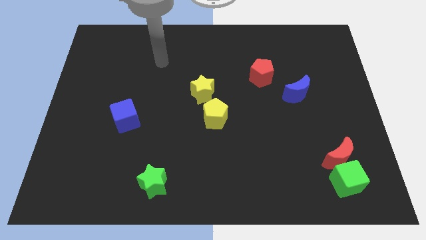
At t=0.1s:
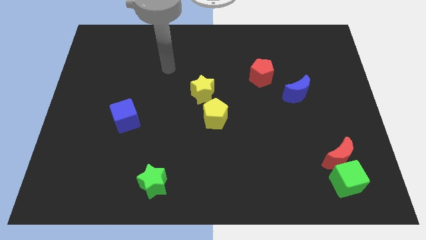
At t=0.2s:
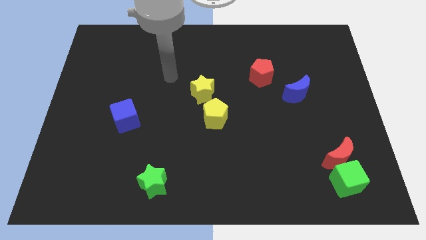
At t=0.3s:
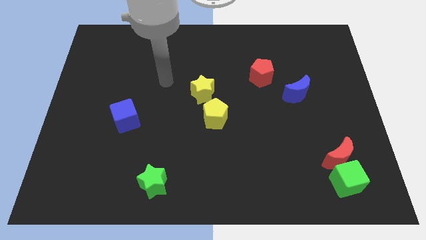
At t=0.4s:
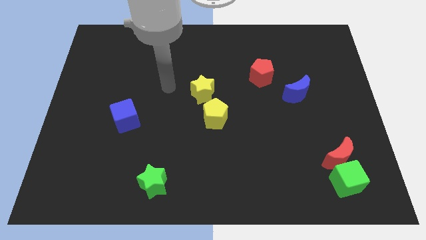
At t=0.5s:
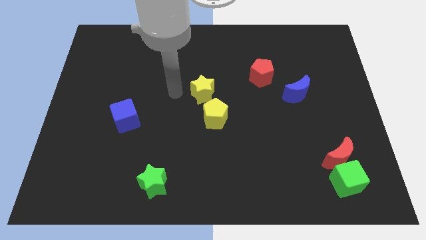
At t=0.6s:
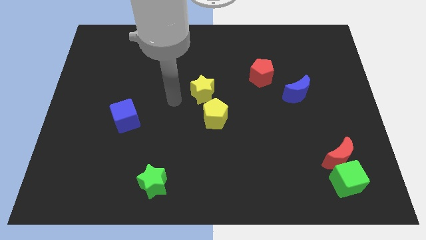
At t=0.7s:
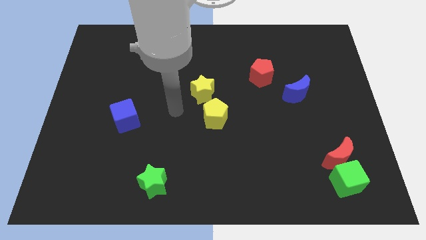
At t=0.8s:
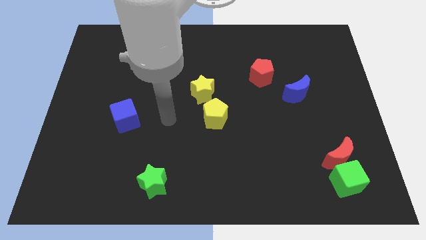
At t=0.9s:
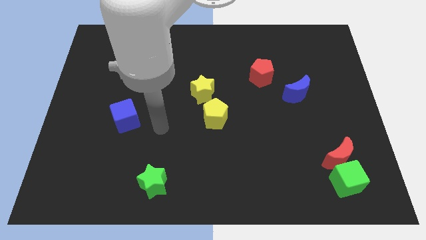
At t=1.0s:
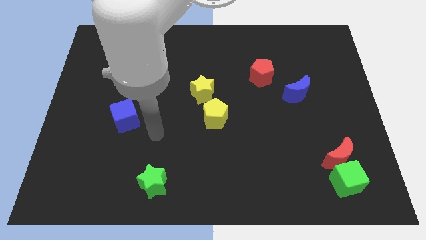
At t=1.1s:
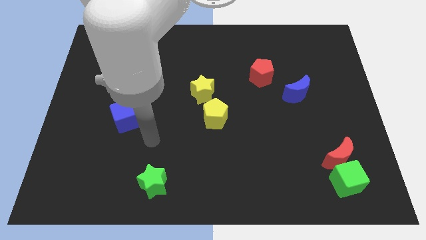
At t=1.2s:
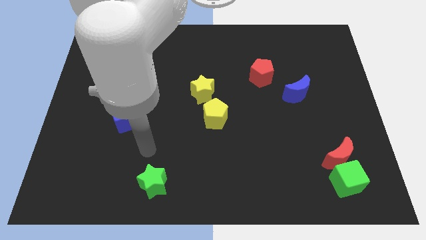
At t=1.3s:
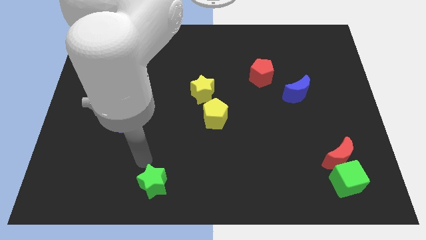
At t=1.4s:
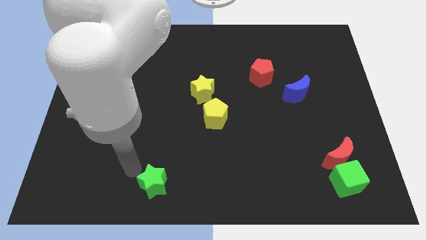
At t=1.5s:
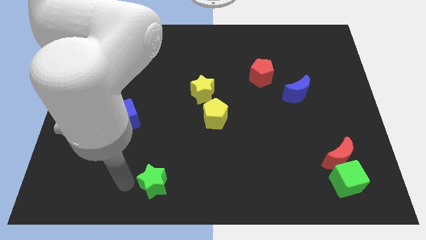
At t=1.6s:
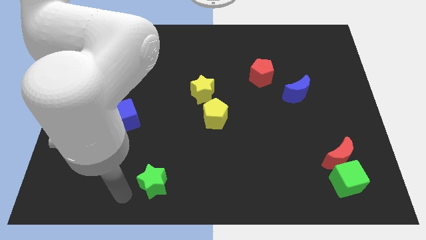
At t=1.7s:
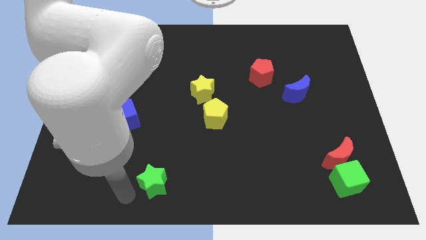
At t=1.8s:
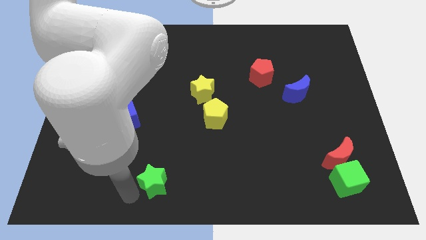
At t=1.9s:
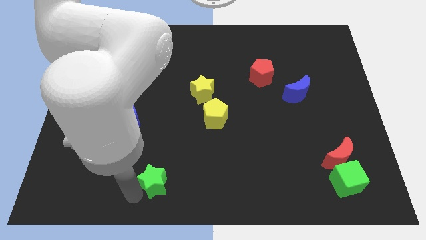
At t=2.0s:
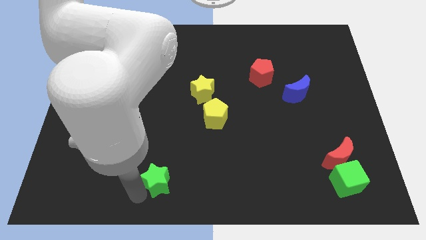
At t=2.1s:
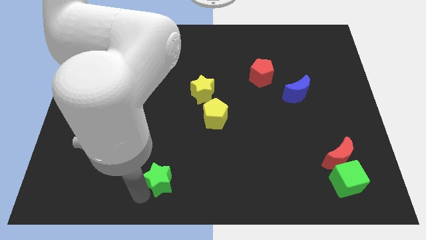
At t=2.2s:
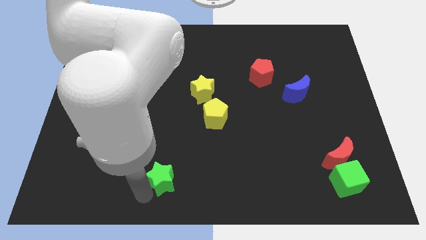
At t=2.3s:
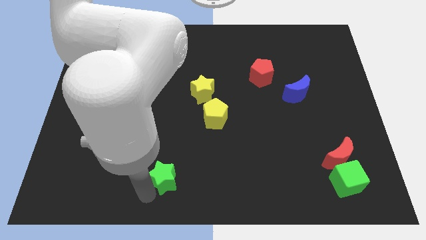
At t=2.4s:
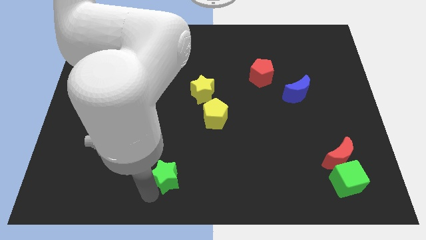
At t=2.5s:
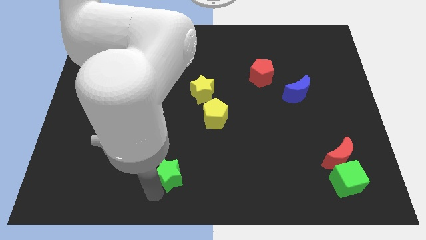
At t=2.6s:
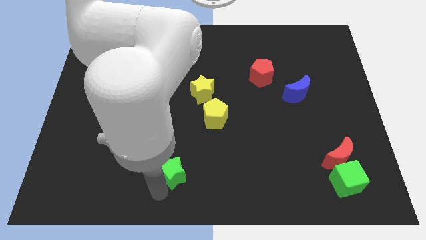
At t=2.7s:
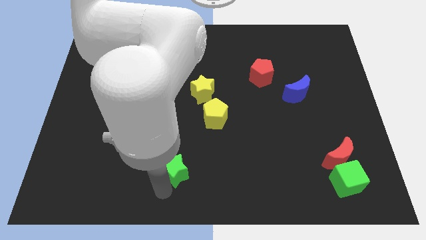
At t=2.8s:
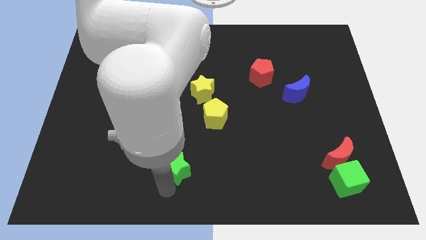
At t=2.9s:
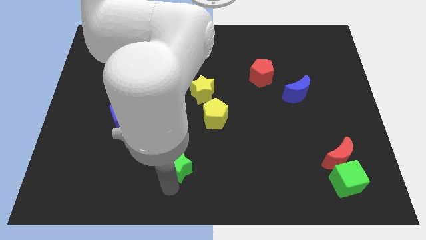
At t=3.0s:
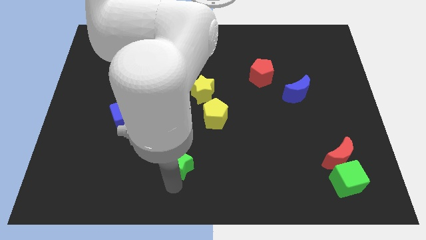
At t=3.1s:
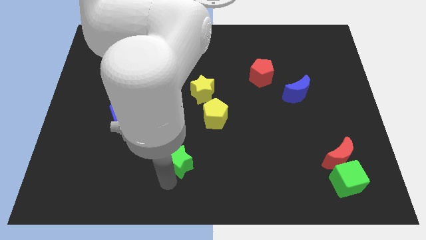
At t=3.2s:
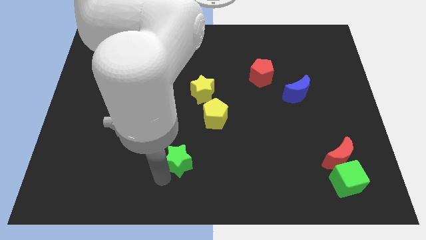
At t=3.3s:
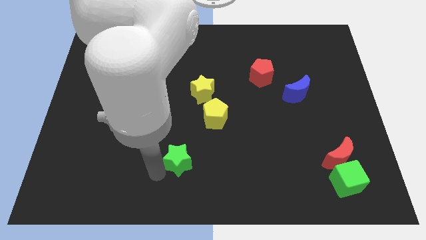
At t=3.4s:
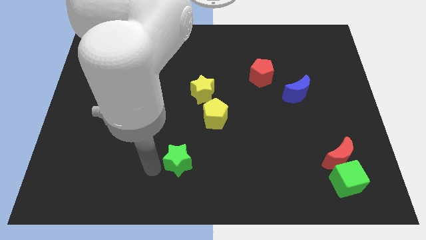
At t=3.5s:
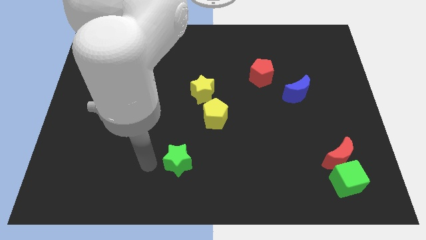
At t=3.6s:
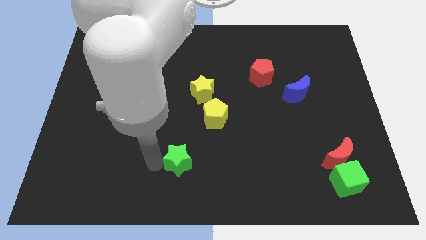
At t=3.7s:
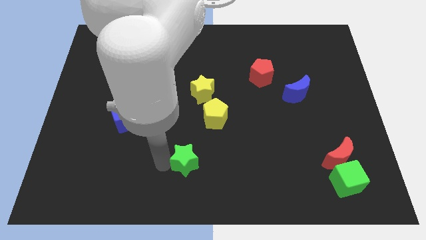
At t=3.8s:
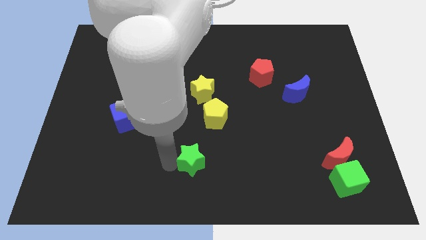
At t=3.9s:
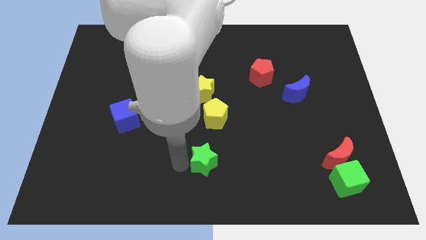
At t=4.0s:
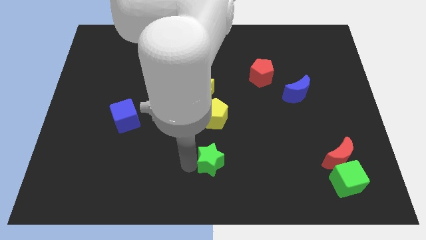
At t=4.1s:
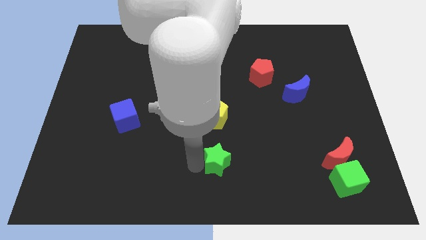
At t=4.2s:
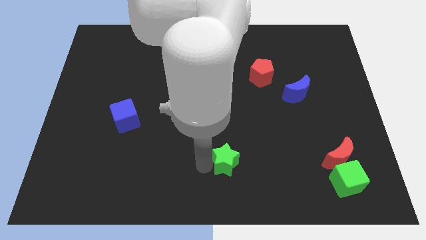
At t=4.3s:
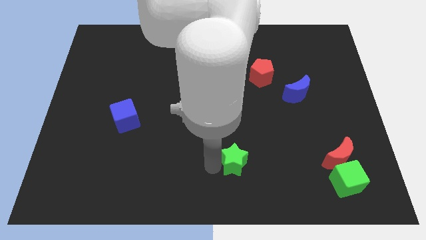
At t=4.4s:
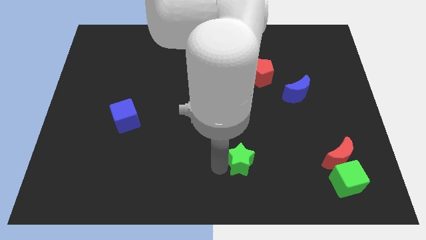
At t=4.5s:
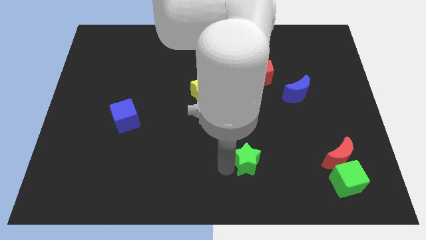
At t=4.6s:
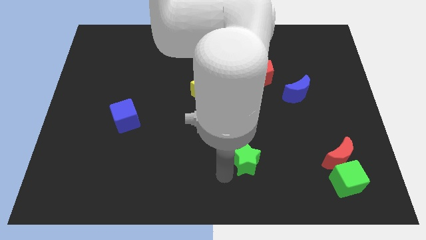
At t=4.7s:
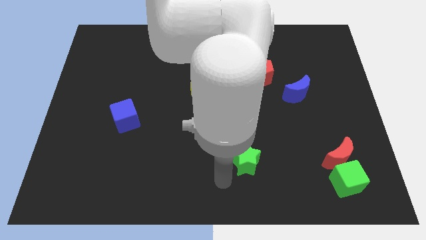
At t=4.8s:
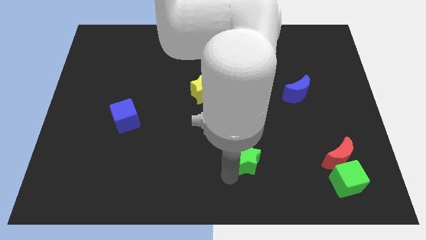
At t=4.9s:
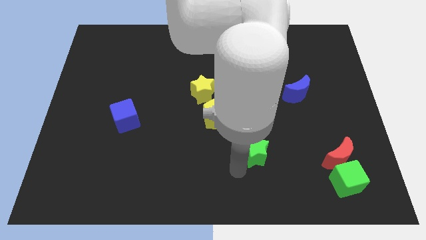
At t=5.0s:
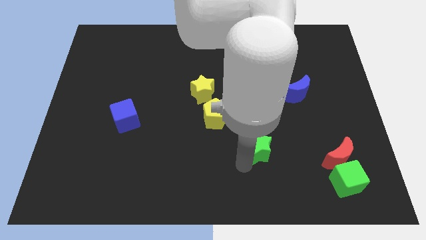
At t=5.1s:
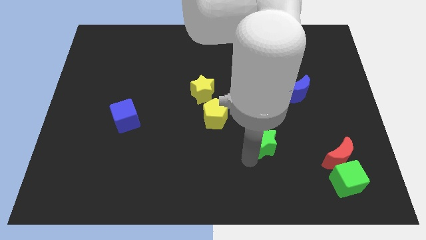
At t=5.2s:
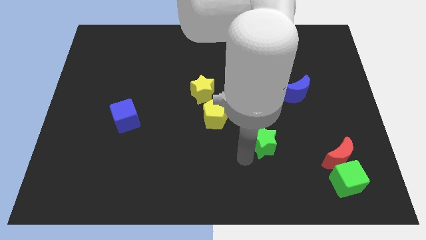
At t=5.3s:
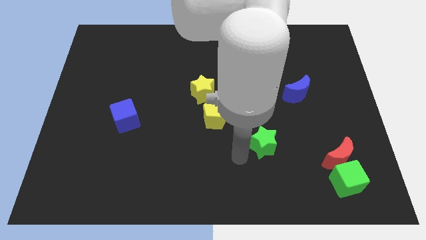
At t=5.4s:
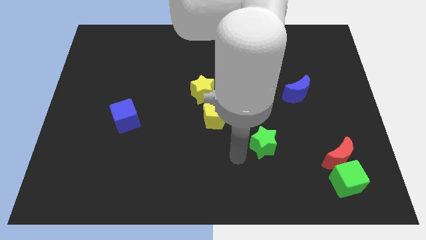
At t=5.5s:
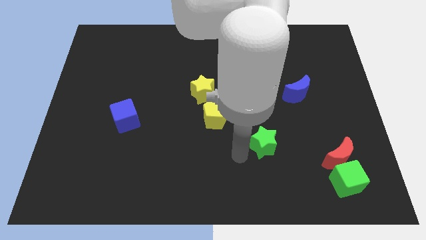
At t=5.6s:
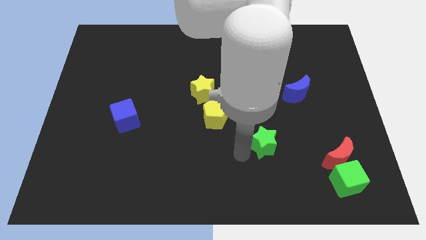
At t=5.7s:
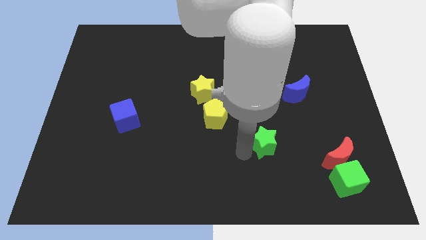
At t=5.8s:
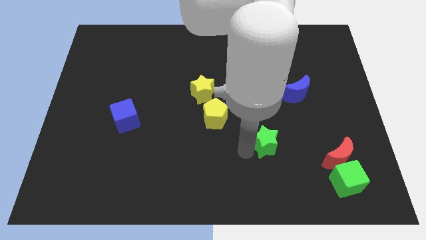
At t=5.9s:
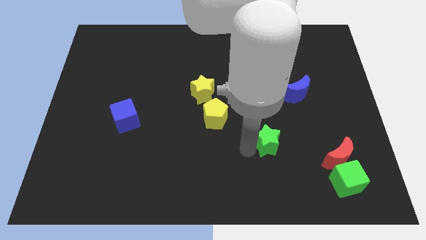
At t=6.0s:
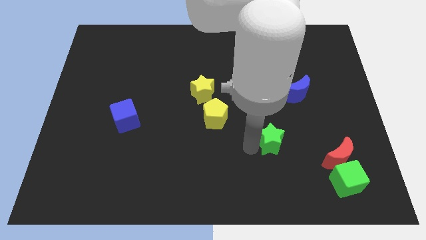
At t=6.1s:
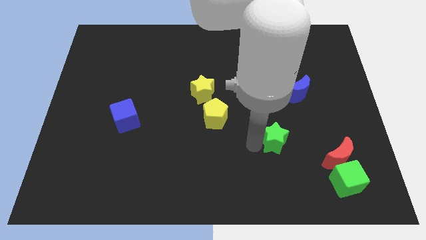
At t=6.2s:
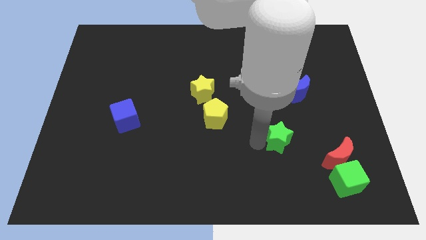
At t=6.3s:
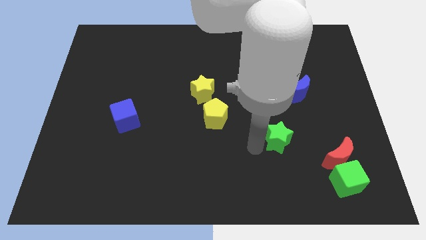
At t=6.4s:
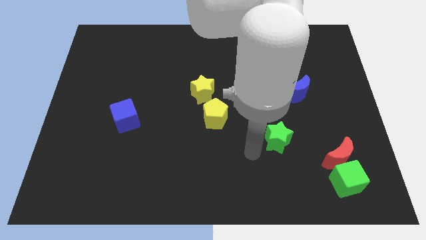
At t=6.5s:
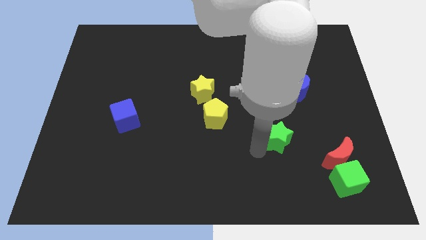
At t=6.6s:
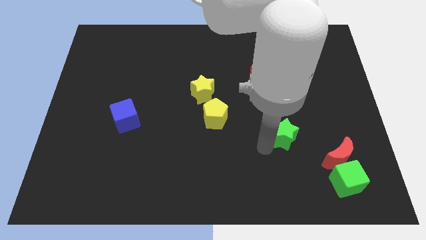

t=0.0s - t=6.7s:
slide the green star to the bottom of the blue moon
